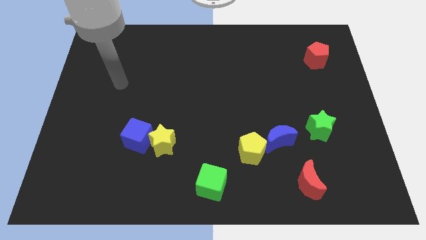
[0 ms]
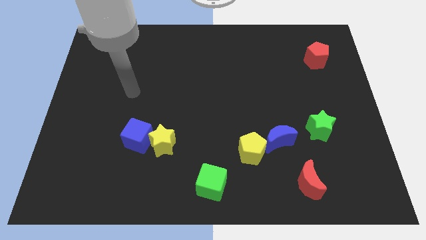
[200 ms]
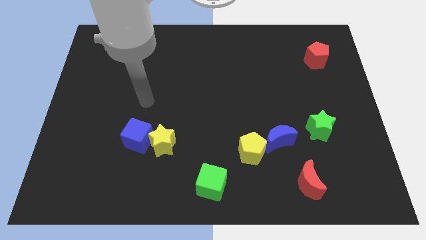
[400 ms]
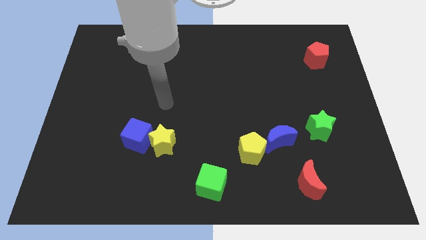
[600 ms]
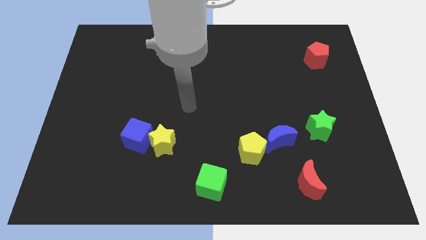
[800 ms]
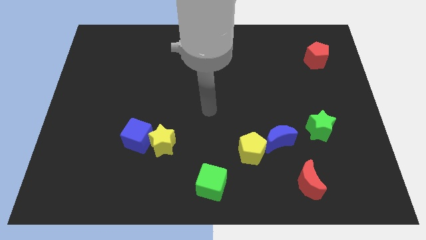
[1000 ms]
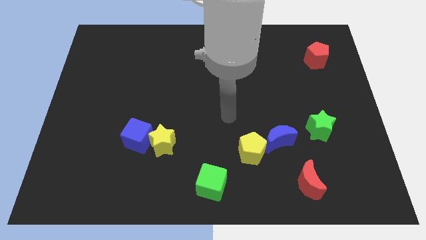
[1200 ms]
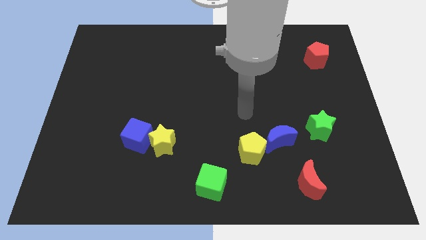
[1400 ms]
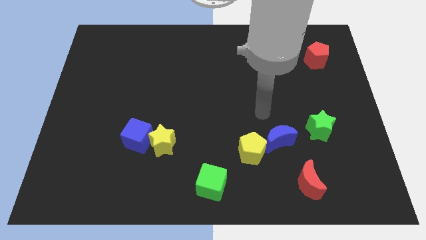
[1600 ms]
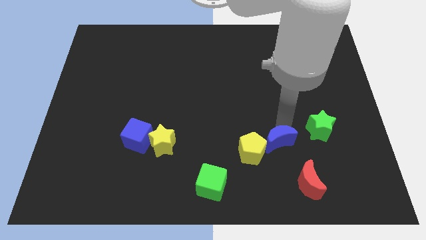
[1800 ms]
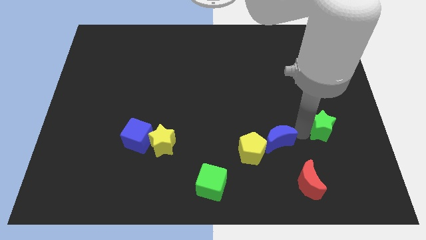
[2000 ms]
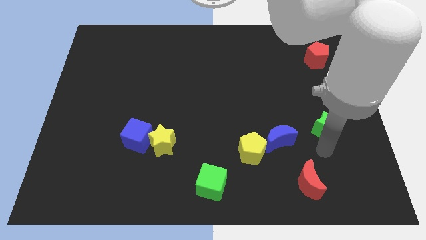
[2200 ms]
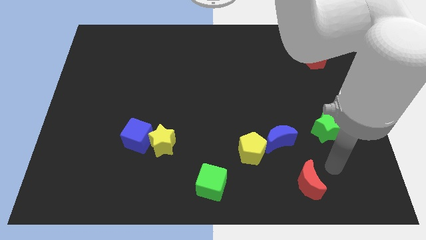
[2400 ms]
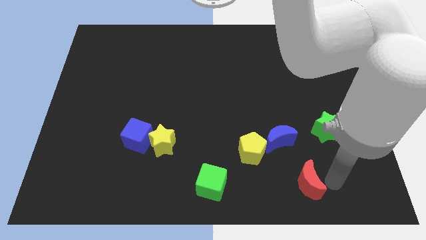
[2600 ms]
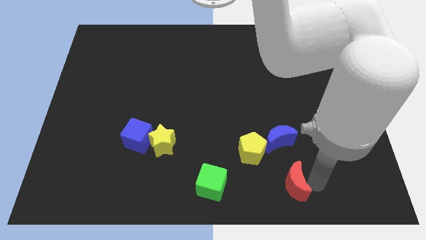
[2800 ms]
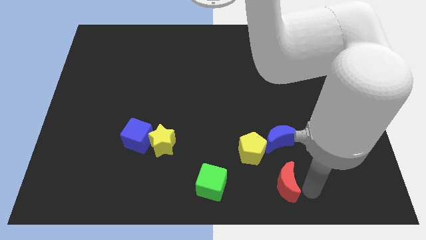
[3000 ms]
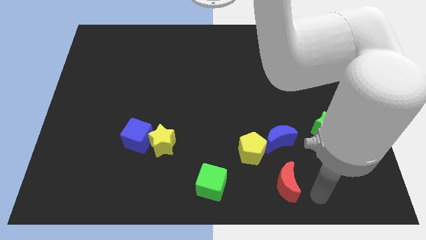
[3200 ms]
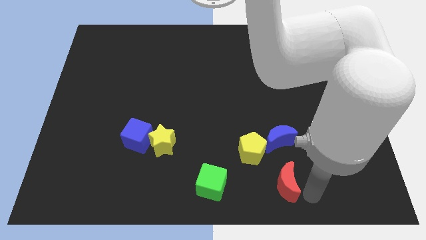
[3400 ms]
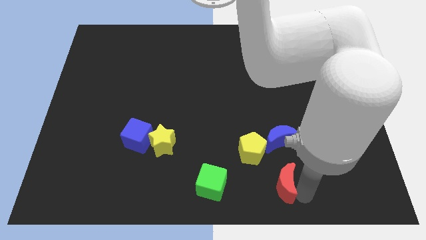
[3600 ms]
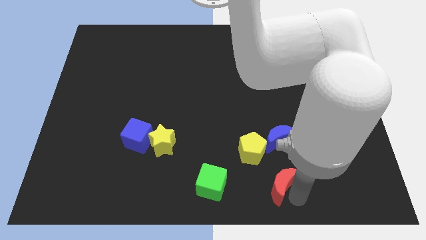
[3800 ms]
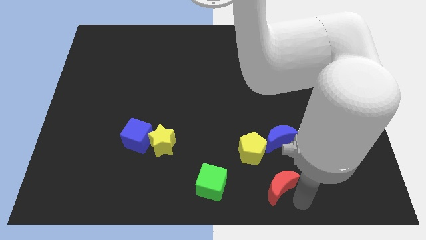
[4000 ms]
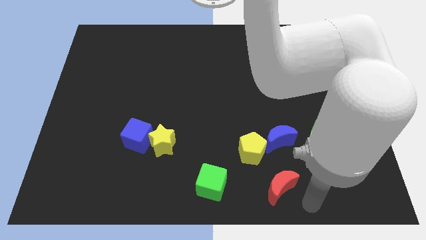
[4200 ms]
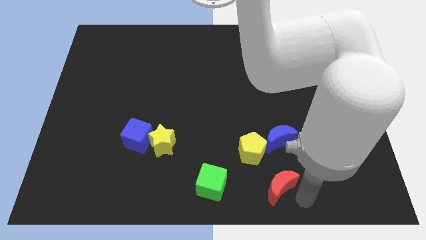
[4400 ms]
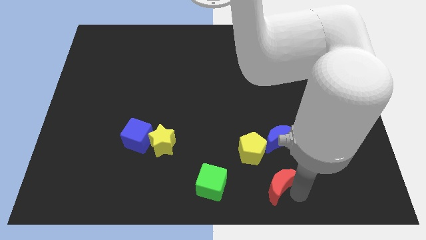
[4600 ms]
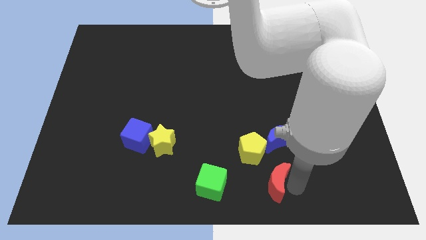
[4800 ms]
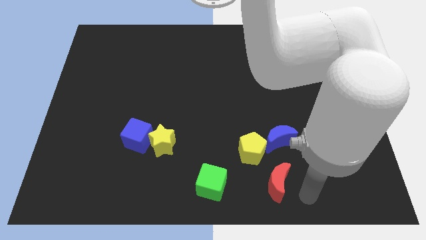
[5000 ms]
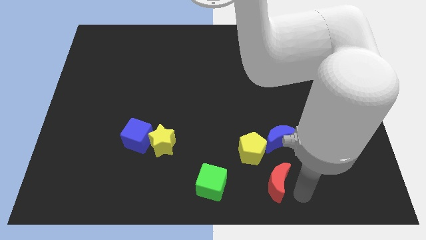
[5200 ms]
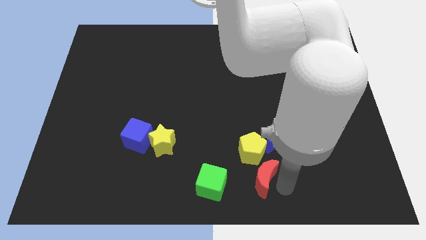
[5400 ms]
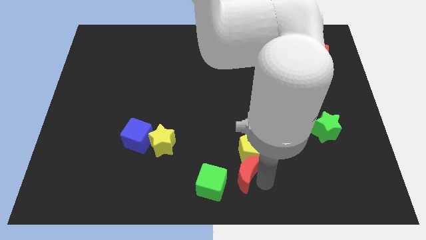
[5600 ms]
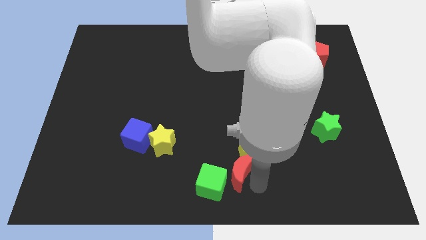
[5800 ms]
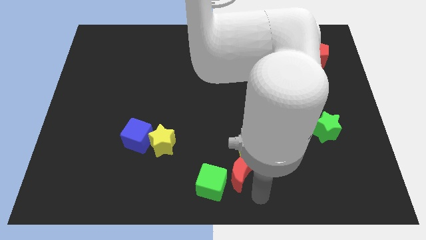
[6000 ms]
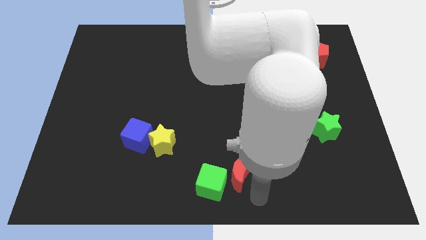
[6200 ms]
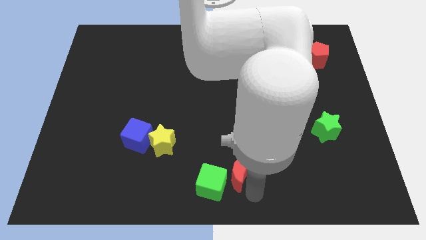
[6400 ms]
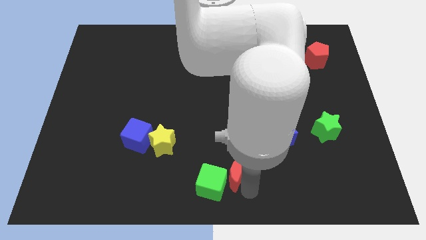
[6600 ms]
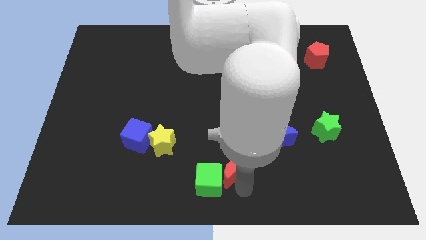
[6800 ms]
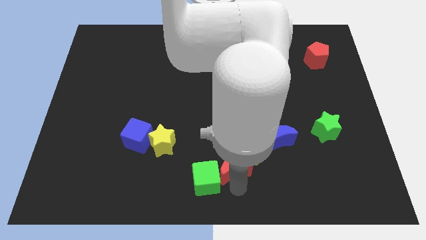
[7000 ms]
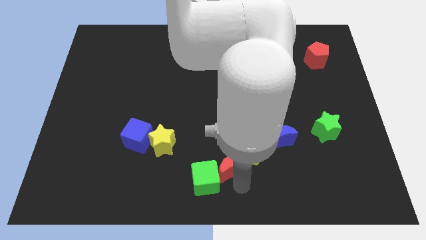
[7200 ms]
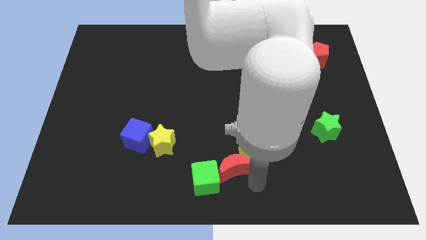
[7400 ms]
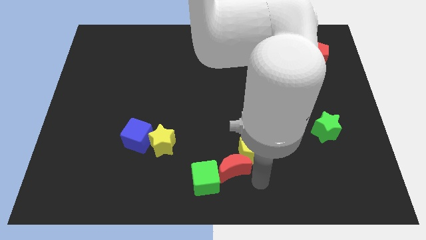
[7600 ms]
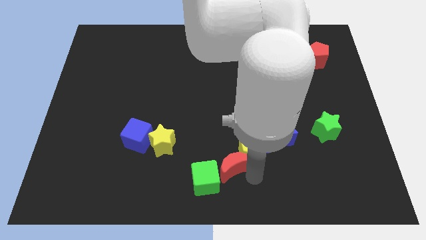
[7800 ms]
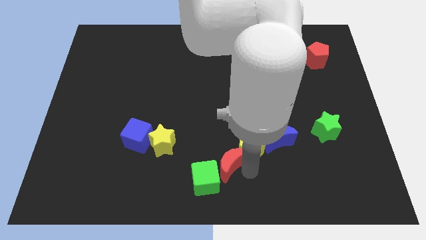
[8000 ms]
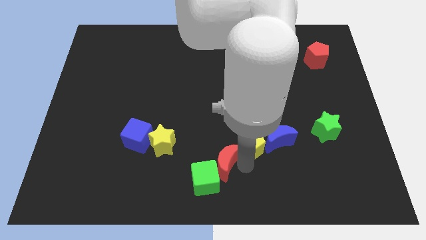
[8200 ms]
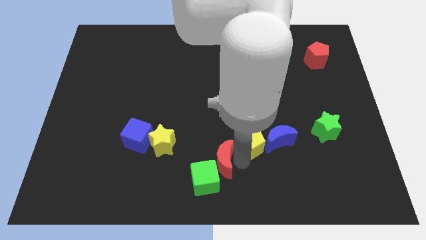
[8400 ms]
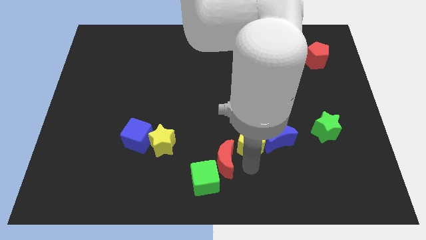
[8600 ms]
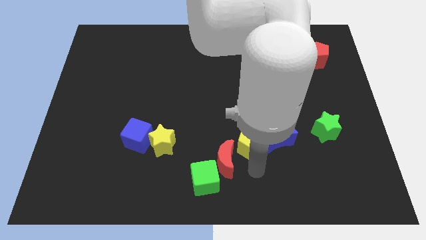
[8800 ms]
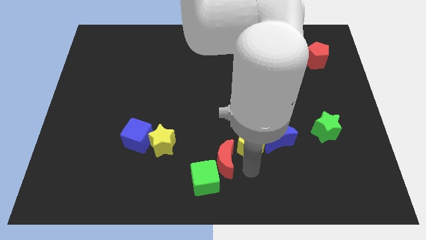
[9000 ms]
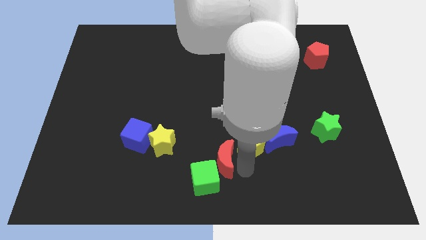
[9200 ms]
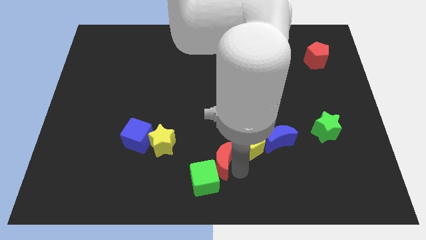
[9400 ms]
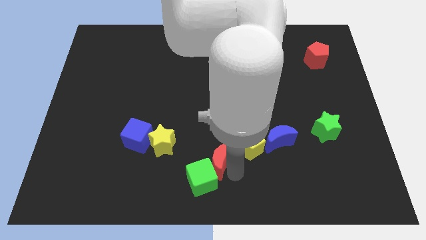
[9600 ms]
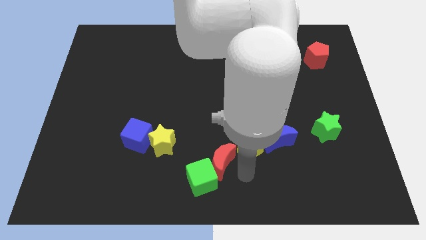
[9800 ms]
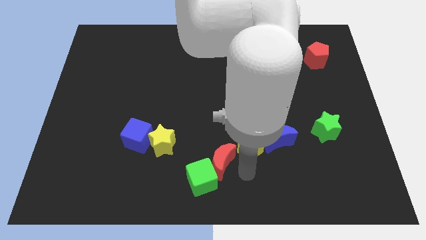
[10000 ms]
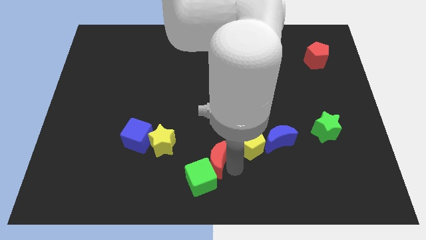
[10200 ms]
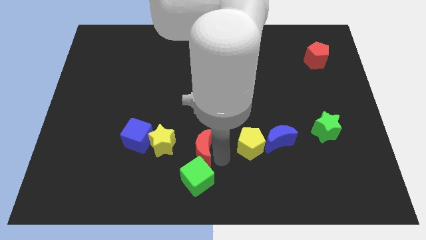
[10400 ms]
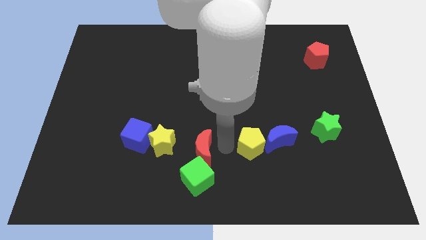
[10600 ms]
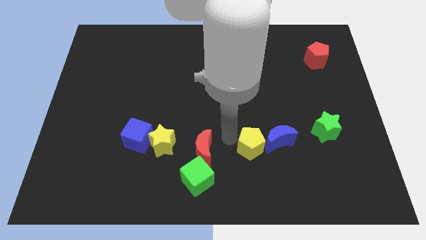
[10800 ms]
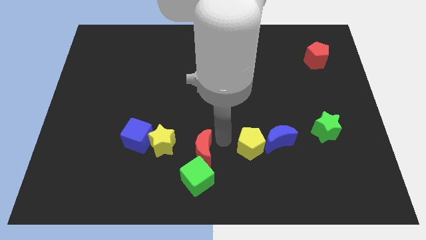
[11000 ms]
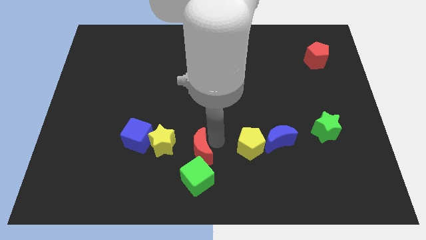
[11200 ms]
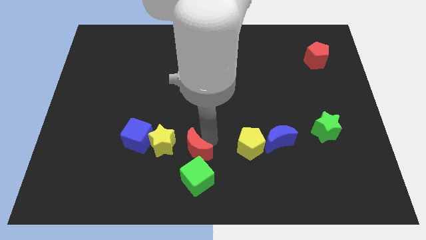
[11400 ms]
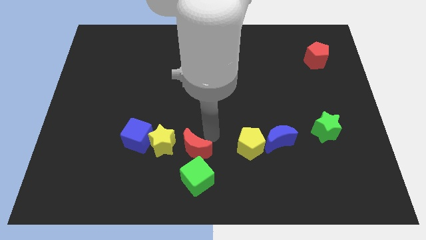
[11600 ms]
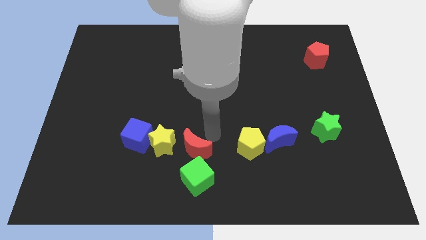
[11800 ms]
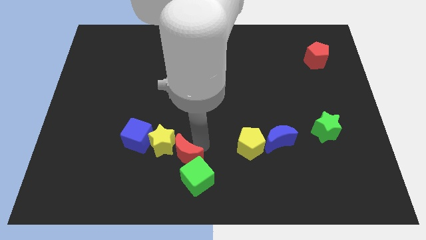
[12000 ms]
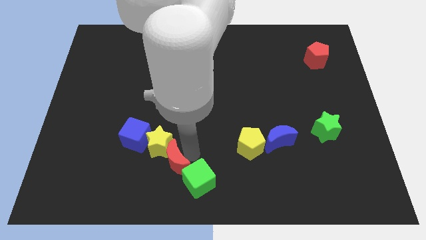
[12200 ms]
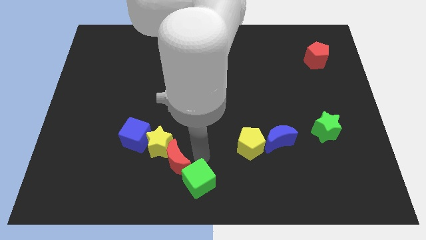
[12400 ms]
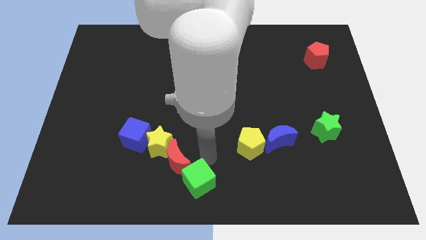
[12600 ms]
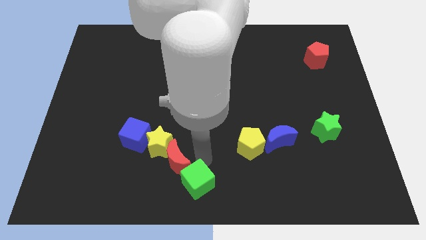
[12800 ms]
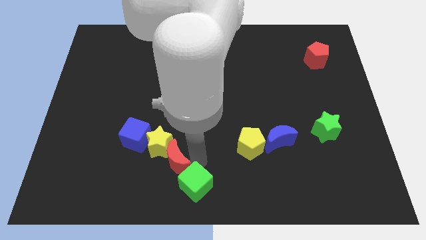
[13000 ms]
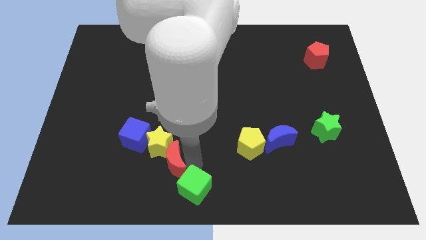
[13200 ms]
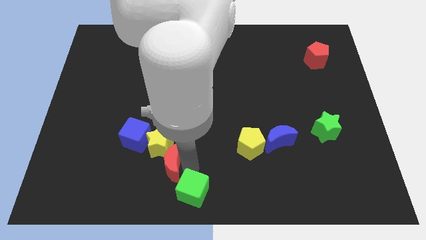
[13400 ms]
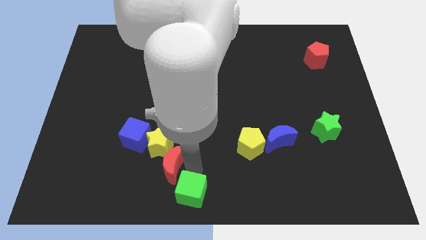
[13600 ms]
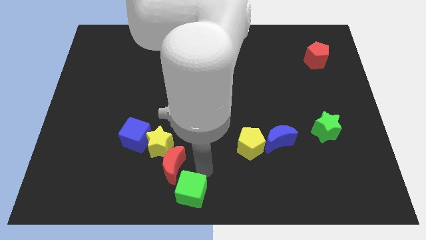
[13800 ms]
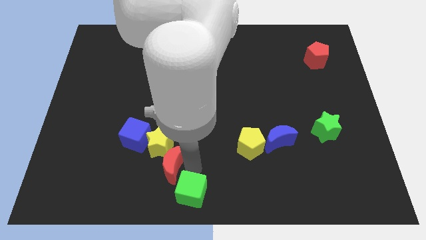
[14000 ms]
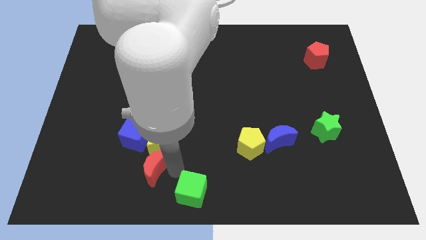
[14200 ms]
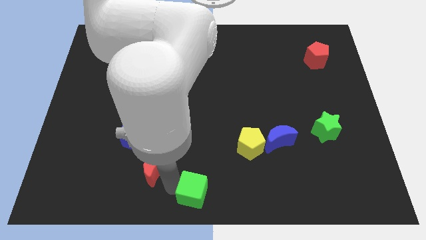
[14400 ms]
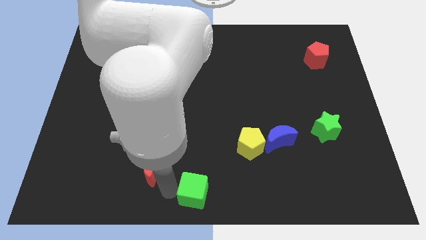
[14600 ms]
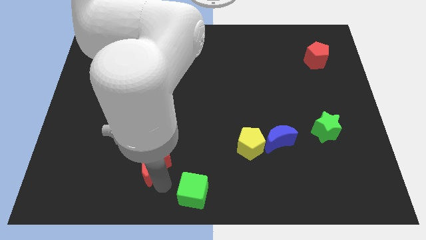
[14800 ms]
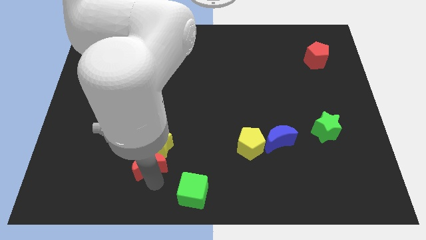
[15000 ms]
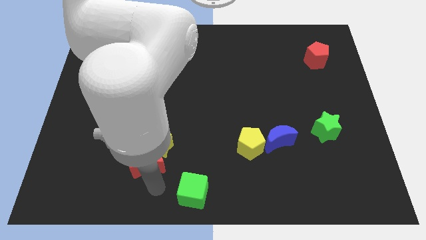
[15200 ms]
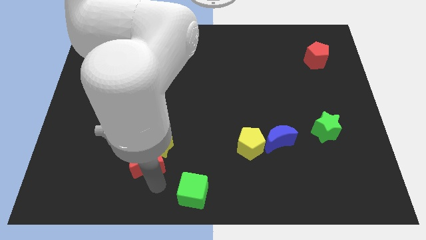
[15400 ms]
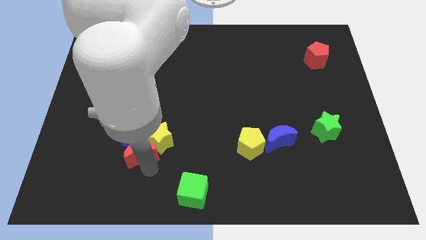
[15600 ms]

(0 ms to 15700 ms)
slide the red moon next to the blue cube
